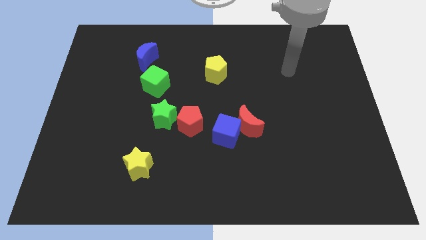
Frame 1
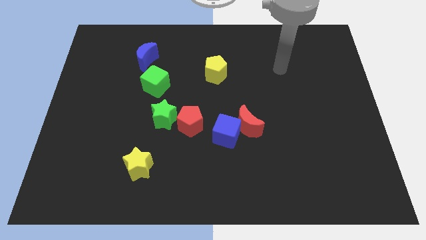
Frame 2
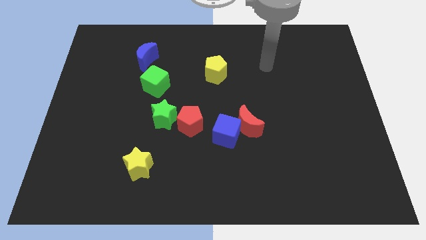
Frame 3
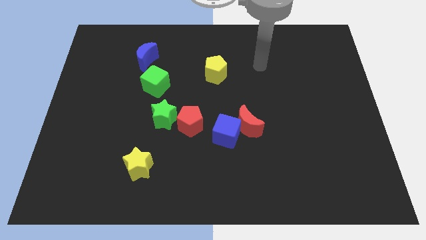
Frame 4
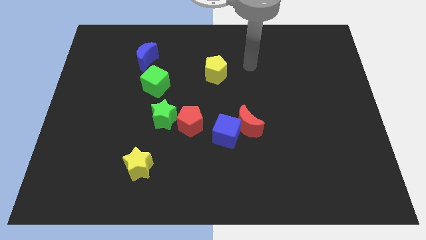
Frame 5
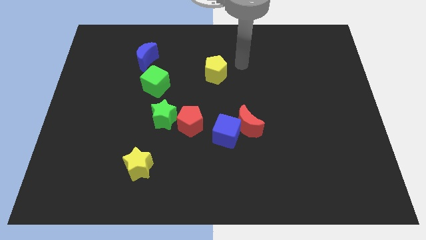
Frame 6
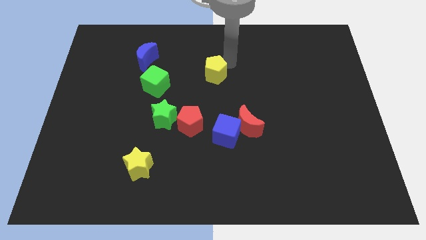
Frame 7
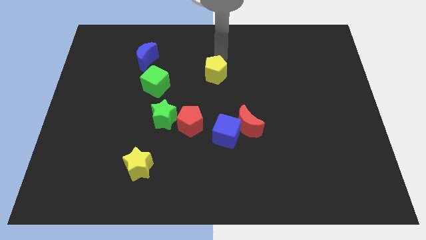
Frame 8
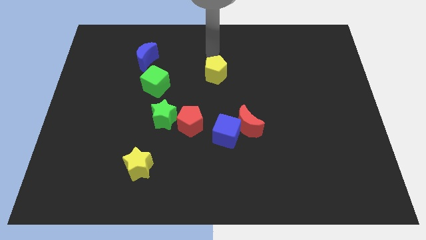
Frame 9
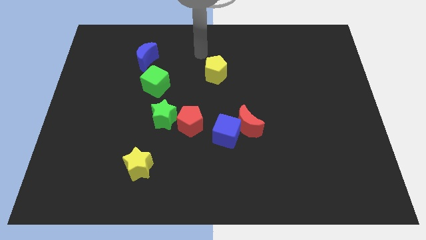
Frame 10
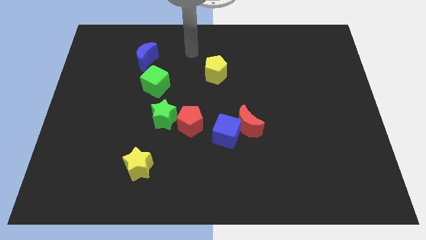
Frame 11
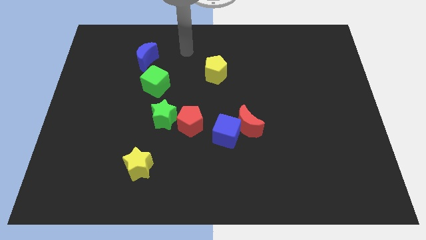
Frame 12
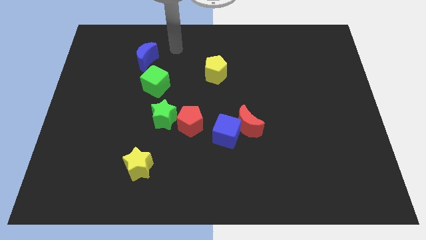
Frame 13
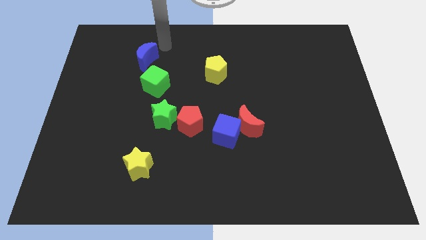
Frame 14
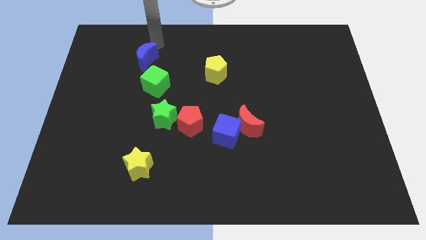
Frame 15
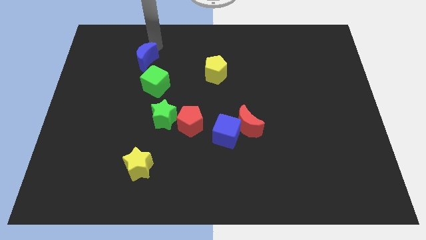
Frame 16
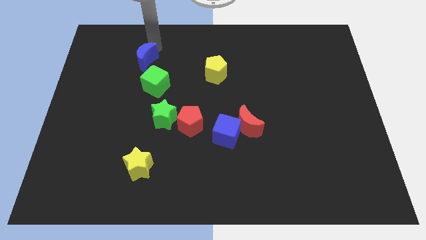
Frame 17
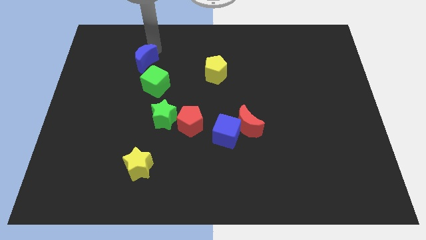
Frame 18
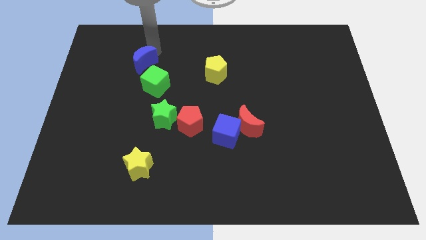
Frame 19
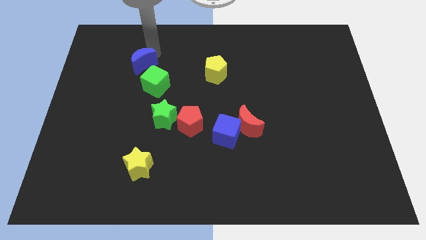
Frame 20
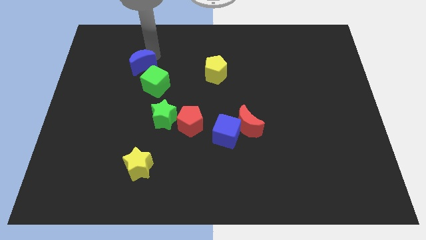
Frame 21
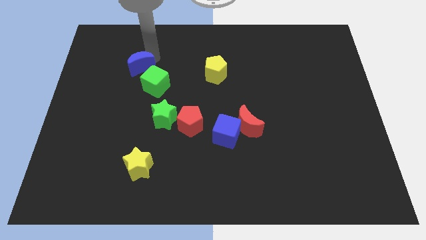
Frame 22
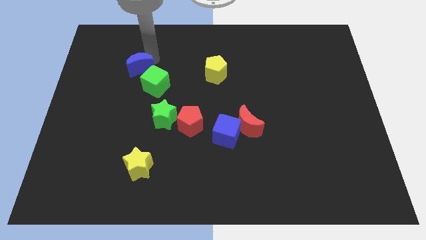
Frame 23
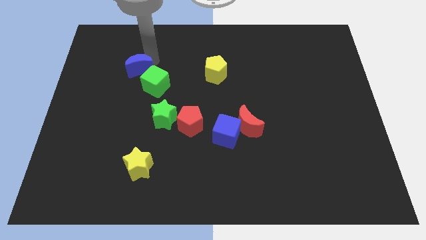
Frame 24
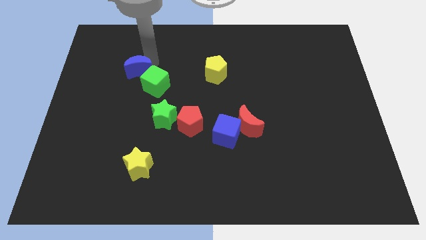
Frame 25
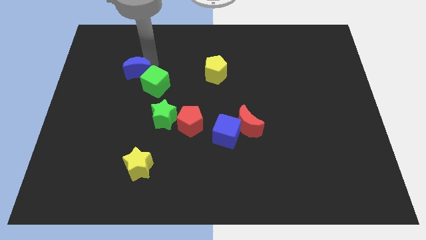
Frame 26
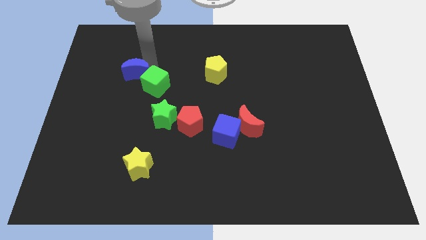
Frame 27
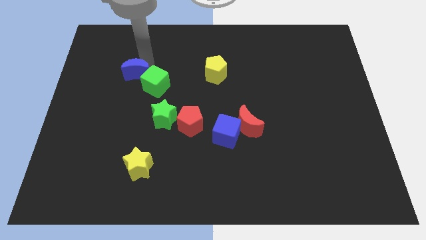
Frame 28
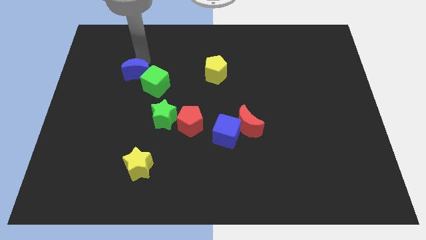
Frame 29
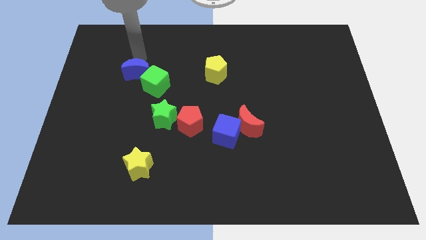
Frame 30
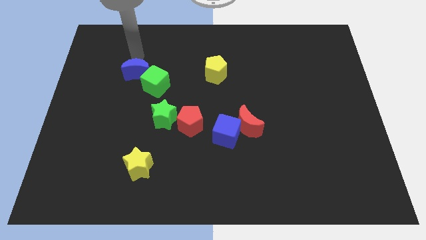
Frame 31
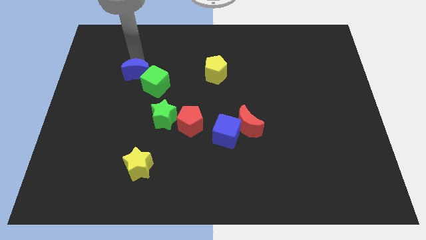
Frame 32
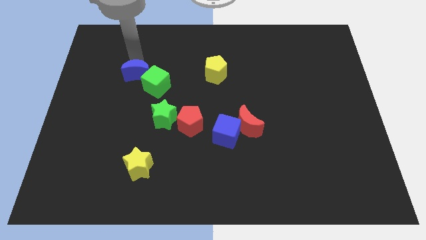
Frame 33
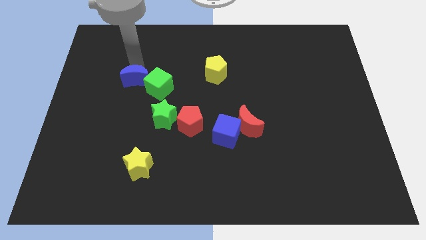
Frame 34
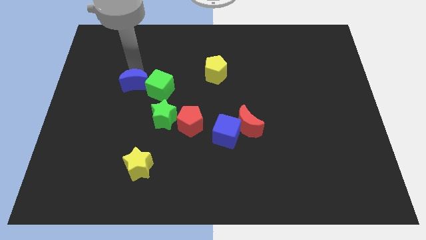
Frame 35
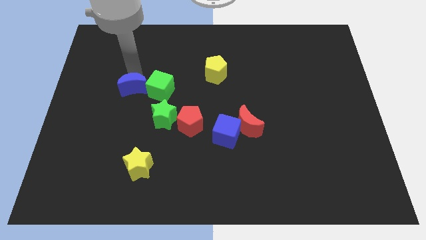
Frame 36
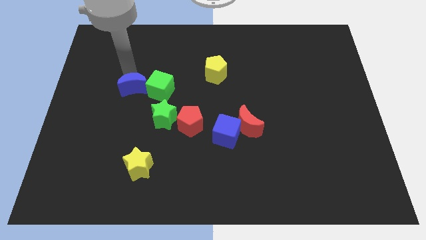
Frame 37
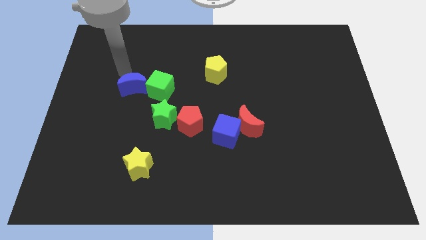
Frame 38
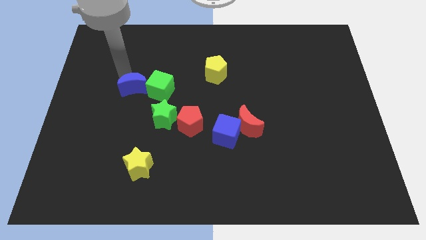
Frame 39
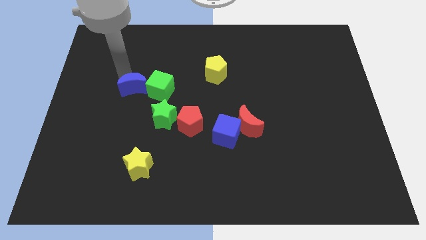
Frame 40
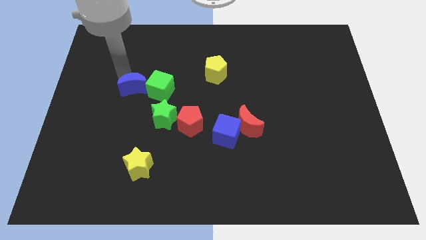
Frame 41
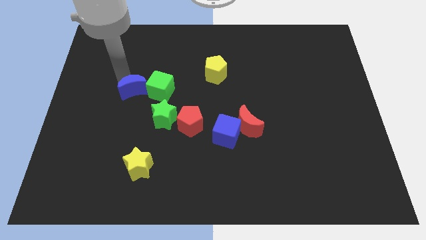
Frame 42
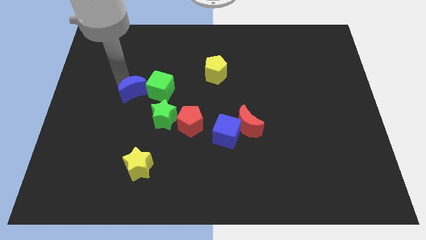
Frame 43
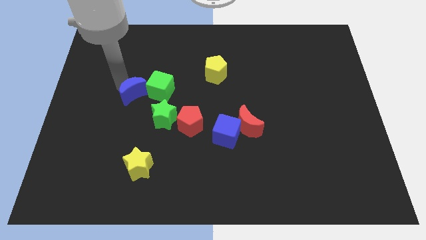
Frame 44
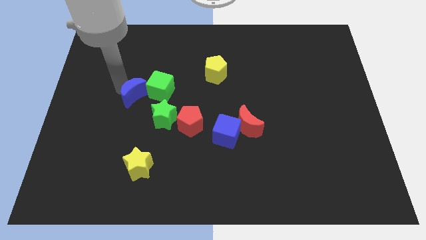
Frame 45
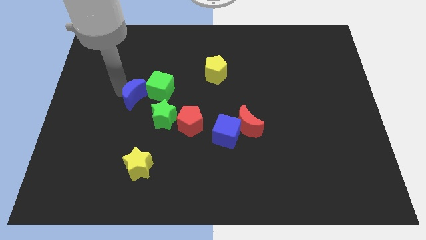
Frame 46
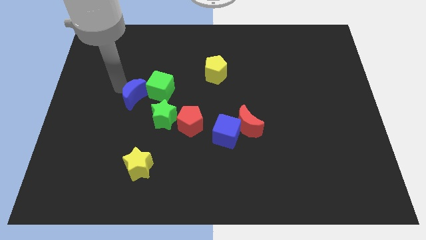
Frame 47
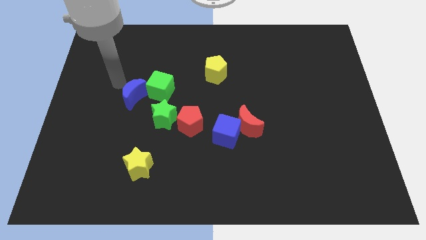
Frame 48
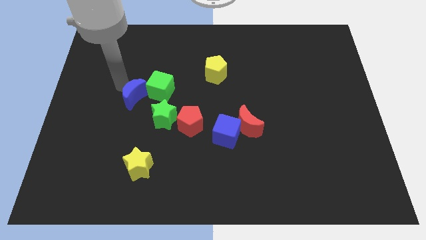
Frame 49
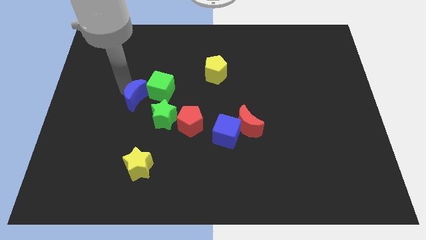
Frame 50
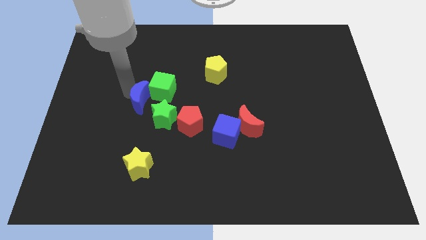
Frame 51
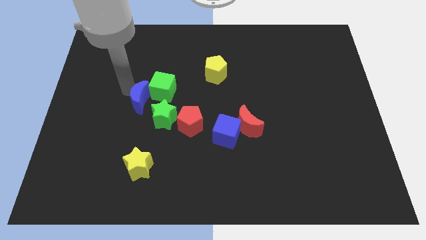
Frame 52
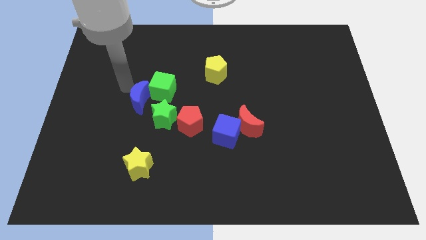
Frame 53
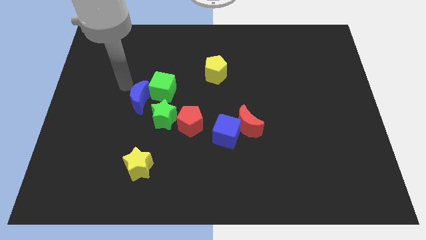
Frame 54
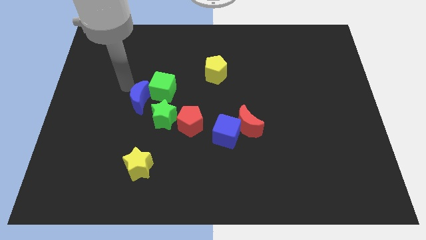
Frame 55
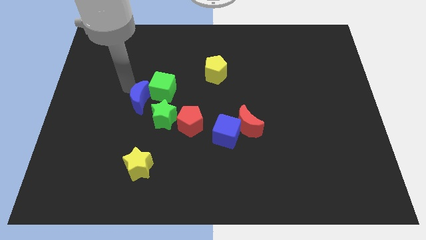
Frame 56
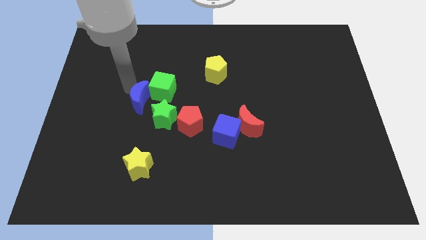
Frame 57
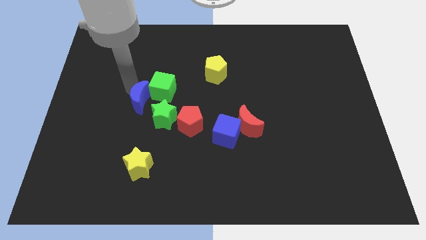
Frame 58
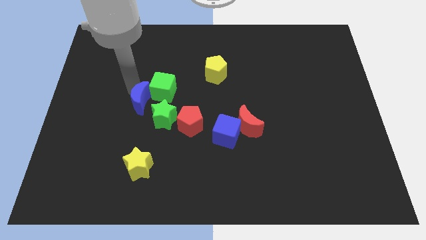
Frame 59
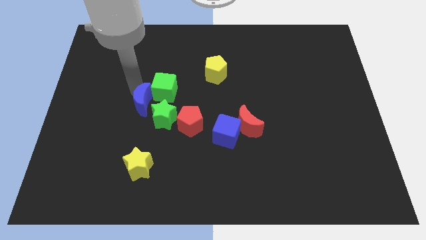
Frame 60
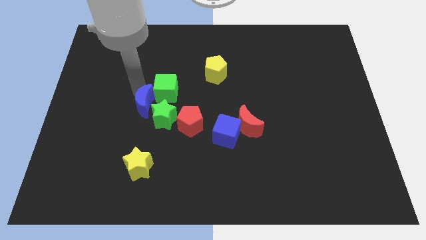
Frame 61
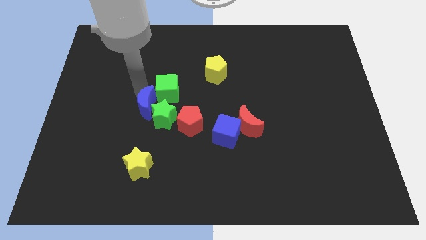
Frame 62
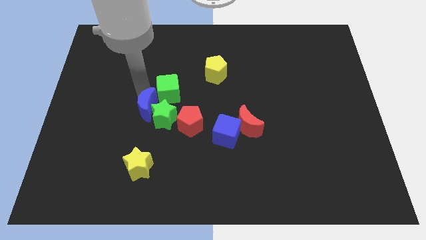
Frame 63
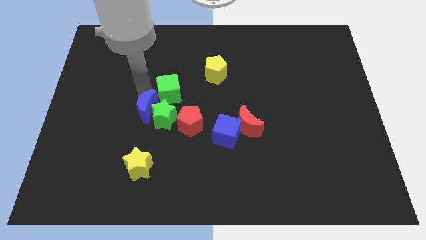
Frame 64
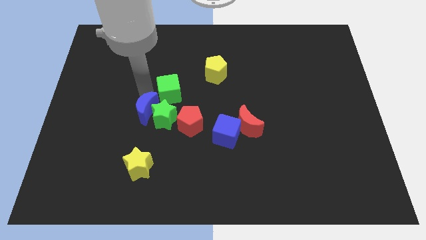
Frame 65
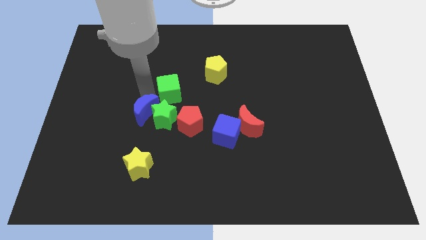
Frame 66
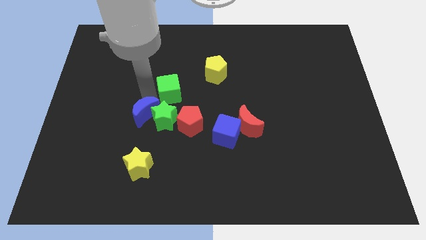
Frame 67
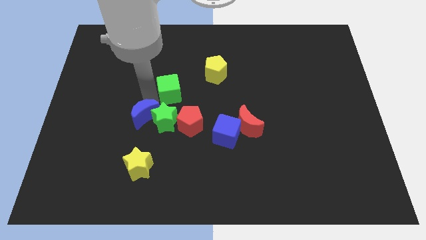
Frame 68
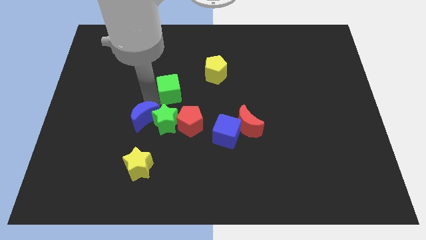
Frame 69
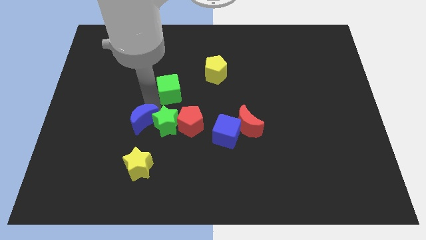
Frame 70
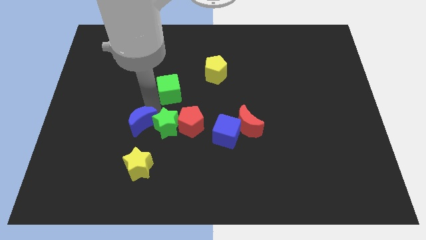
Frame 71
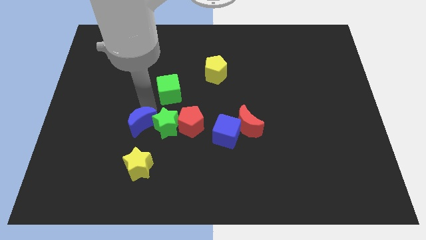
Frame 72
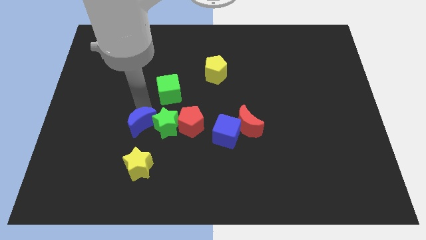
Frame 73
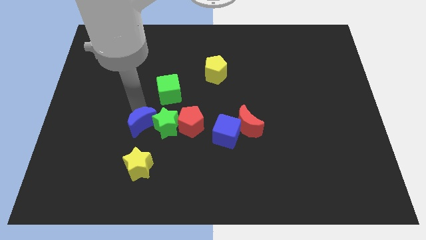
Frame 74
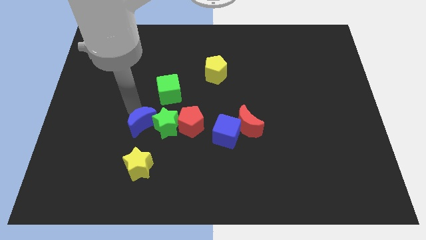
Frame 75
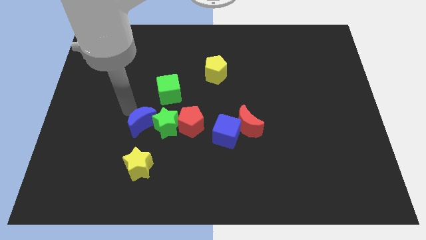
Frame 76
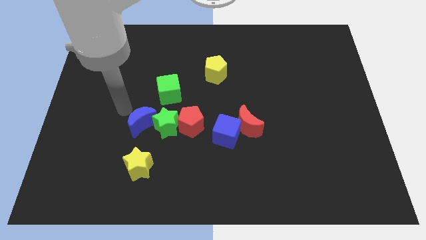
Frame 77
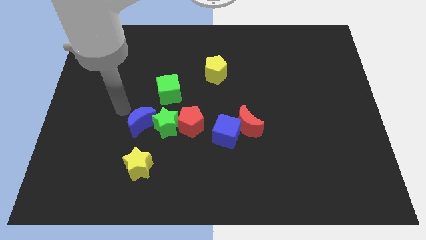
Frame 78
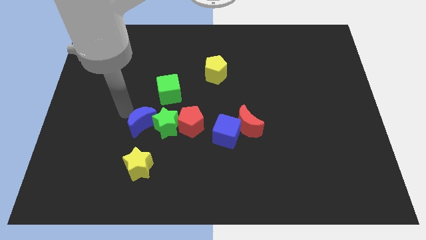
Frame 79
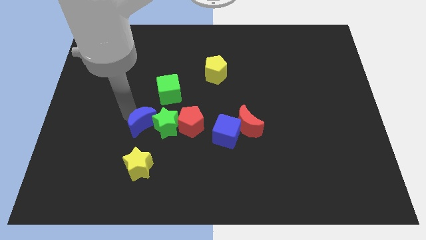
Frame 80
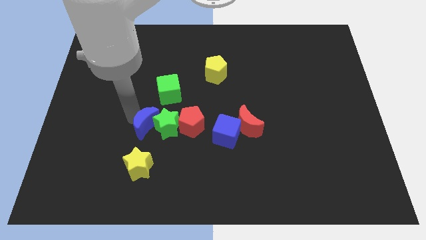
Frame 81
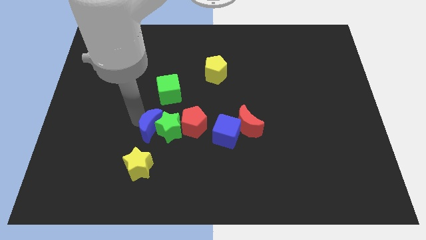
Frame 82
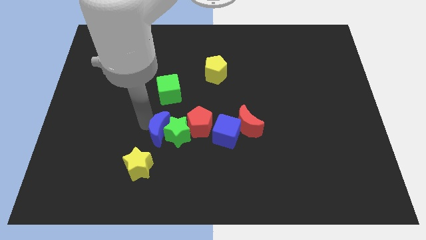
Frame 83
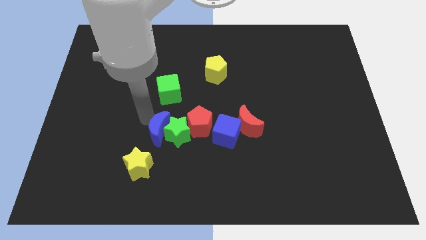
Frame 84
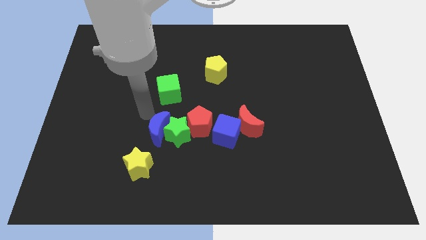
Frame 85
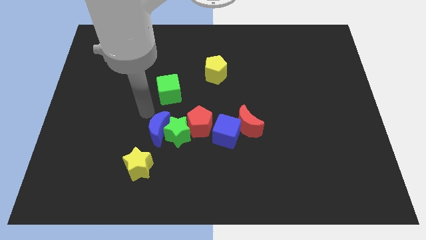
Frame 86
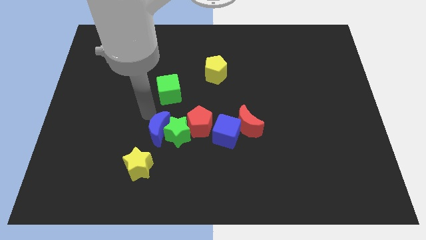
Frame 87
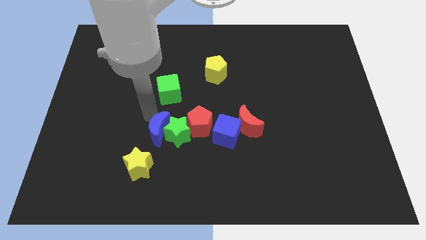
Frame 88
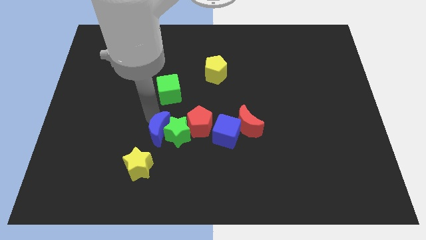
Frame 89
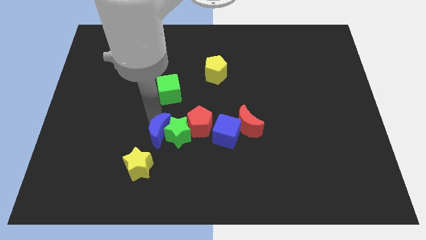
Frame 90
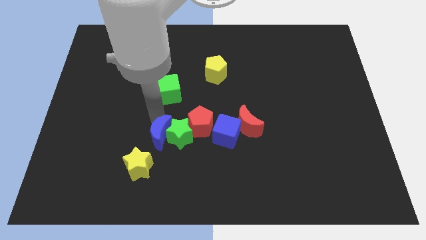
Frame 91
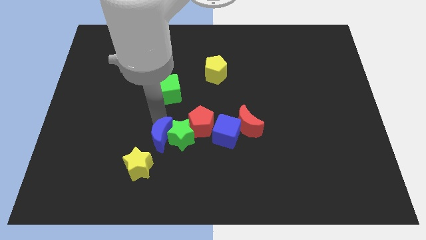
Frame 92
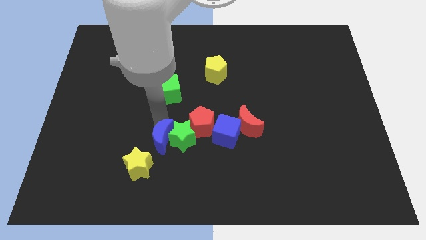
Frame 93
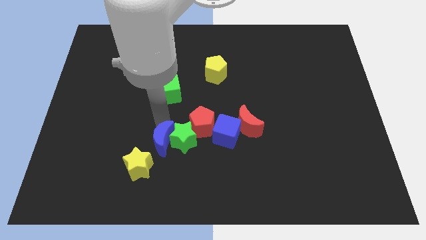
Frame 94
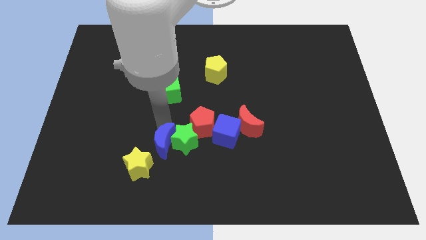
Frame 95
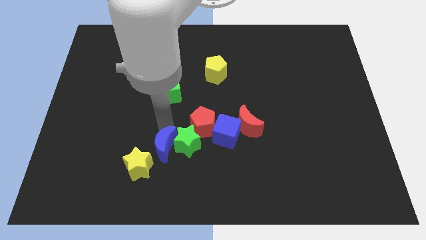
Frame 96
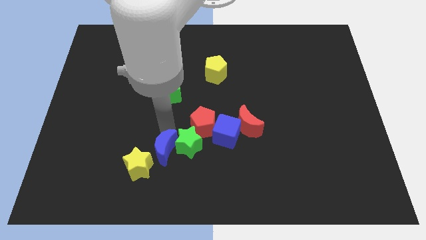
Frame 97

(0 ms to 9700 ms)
put the blue moon to the right side of the yellow star
